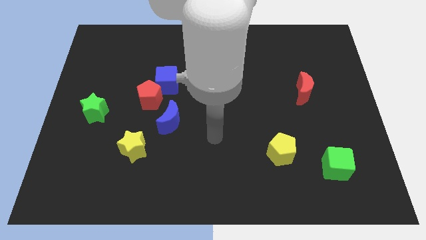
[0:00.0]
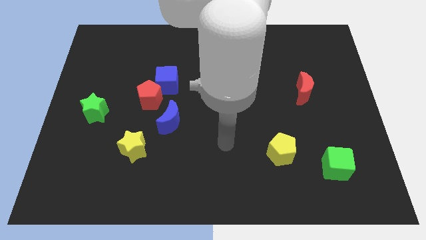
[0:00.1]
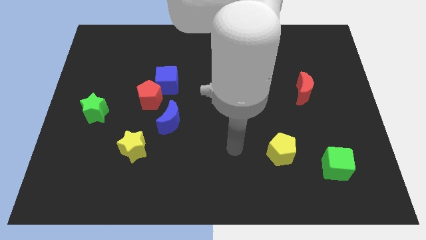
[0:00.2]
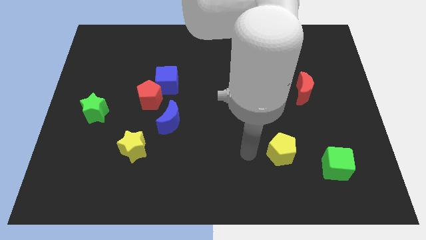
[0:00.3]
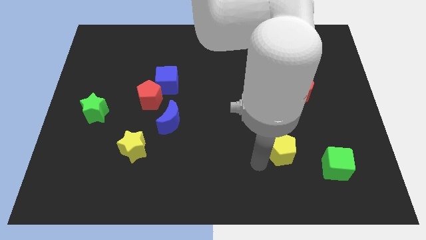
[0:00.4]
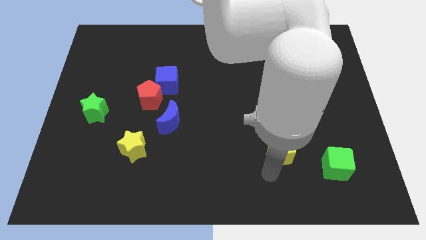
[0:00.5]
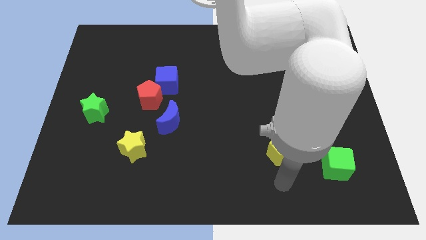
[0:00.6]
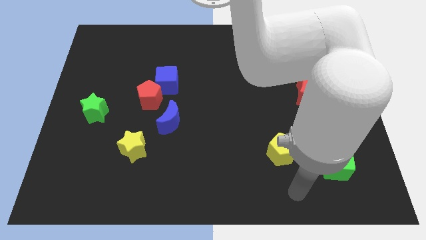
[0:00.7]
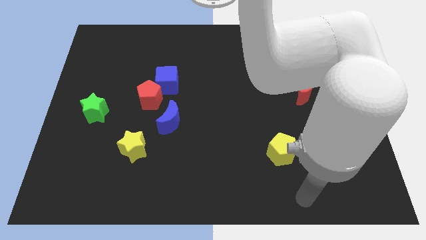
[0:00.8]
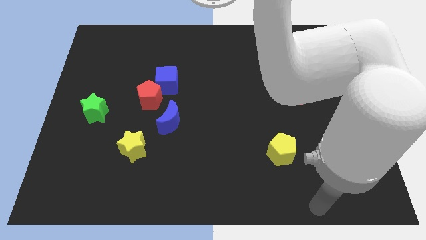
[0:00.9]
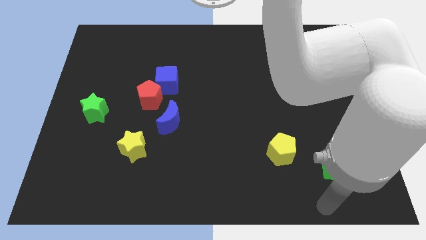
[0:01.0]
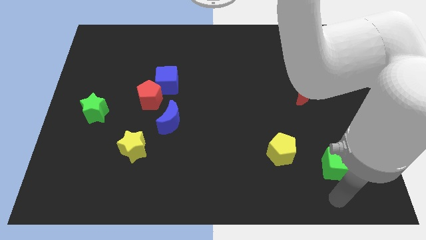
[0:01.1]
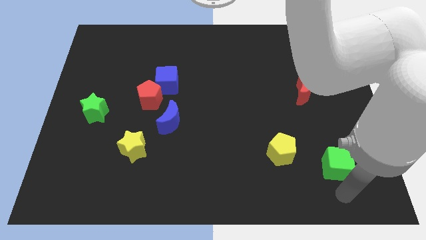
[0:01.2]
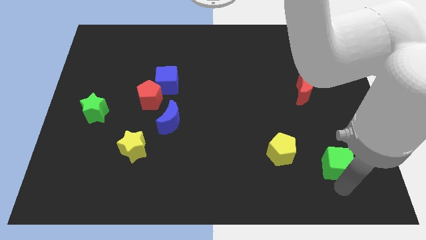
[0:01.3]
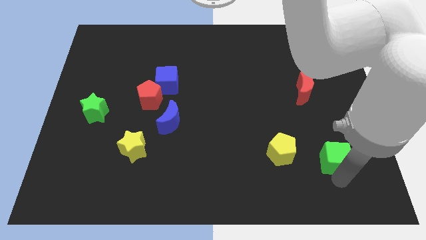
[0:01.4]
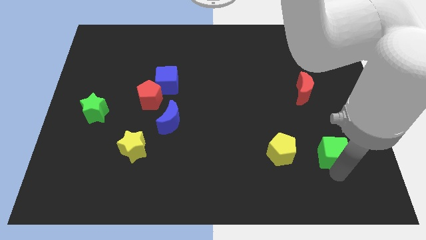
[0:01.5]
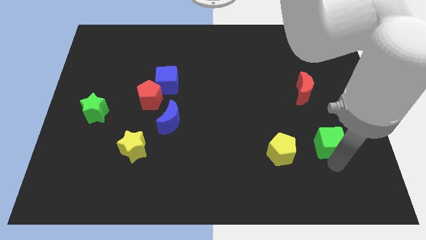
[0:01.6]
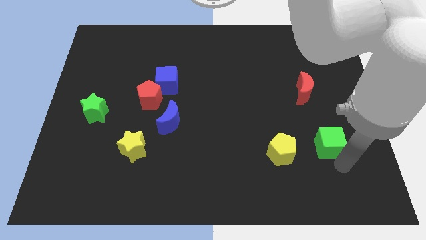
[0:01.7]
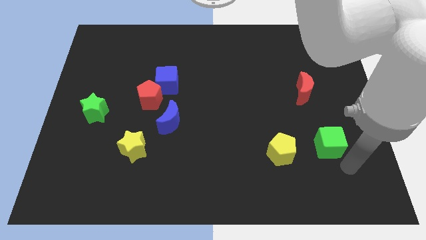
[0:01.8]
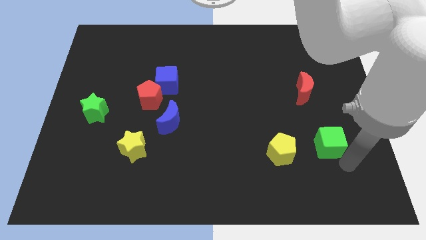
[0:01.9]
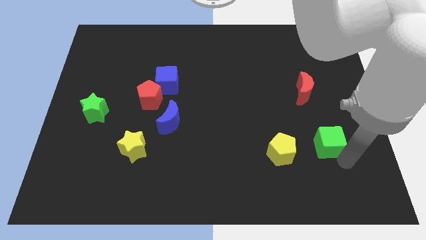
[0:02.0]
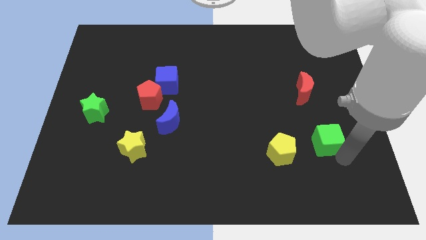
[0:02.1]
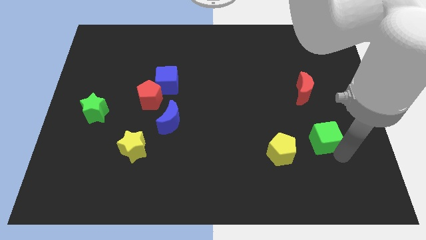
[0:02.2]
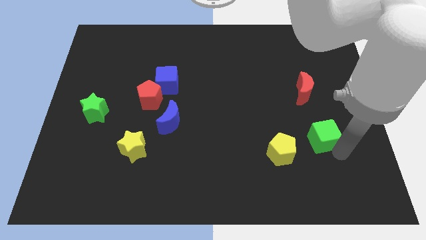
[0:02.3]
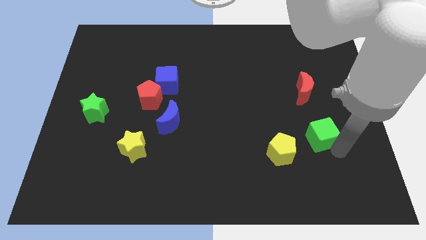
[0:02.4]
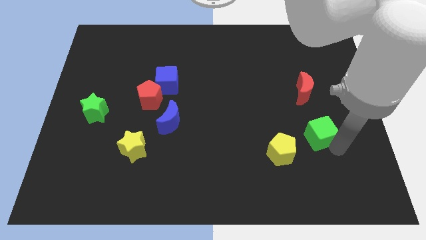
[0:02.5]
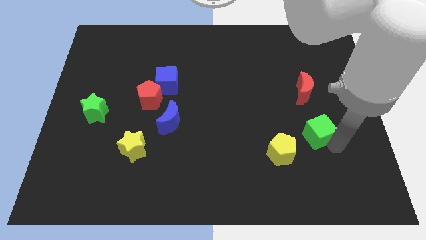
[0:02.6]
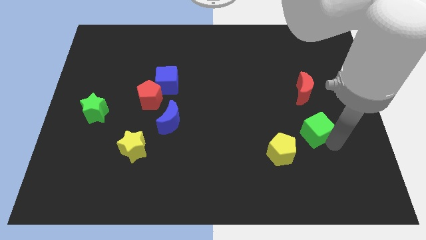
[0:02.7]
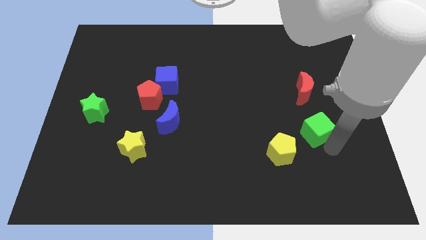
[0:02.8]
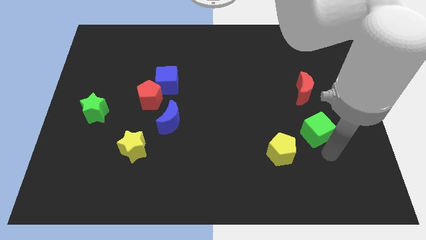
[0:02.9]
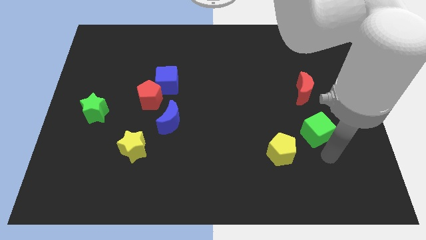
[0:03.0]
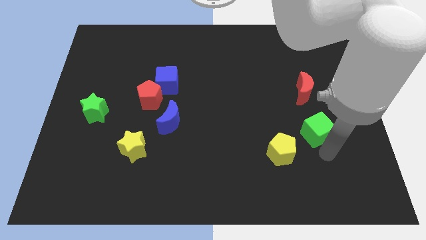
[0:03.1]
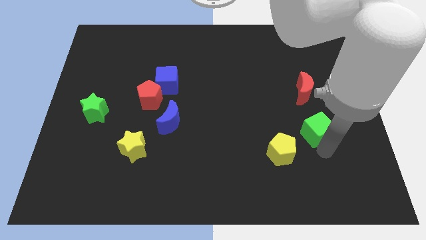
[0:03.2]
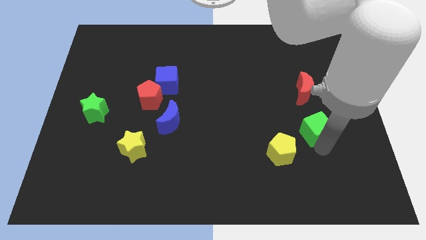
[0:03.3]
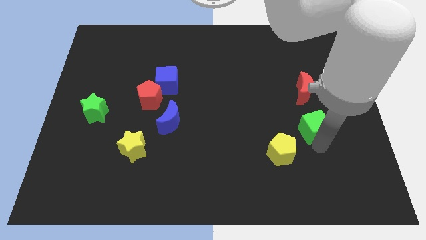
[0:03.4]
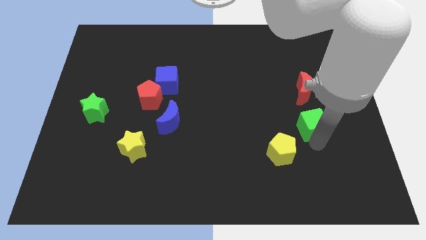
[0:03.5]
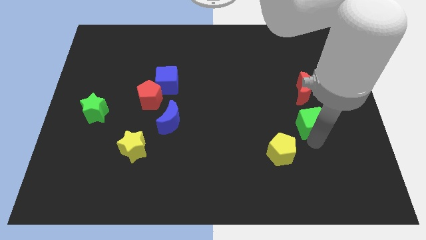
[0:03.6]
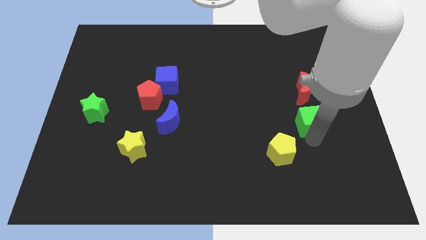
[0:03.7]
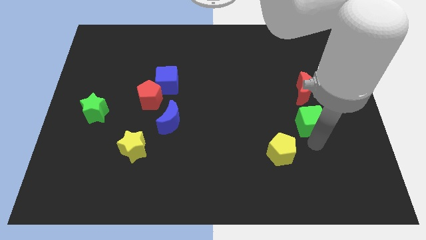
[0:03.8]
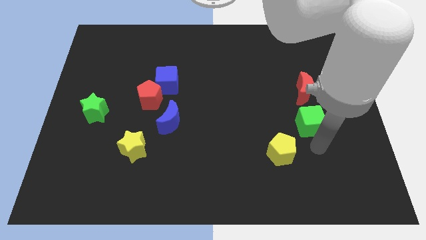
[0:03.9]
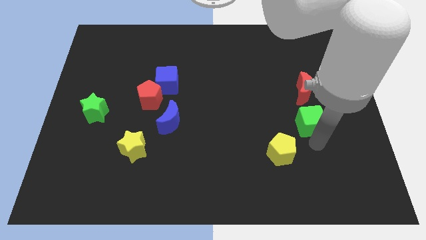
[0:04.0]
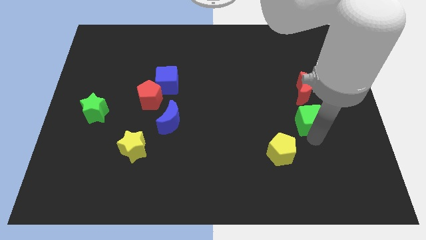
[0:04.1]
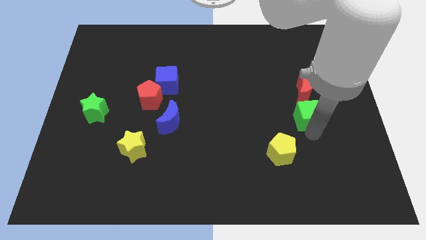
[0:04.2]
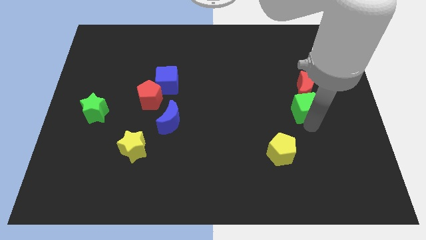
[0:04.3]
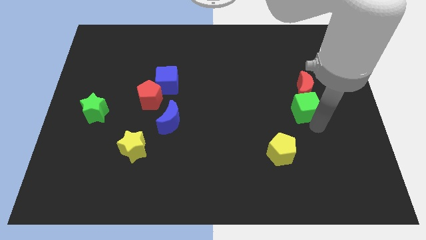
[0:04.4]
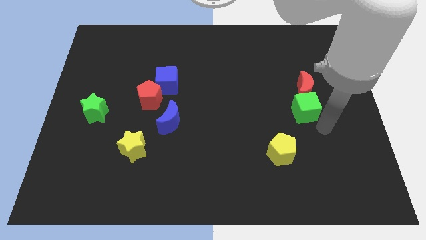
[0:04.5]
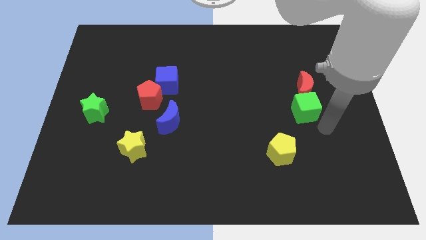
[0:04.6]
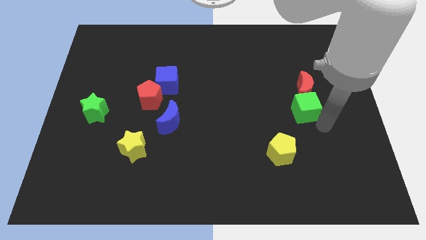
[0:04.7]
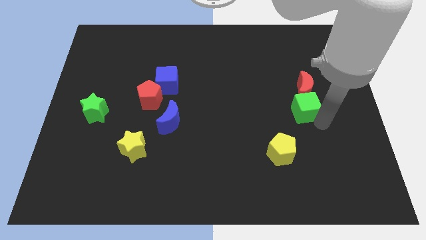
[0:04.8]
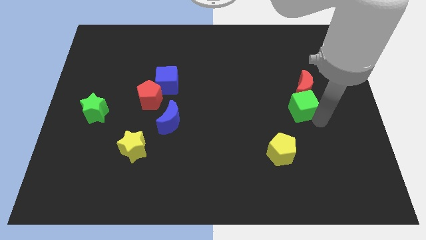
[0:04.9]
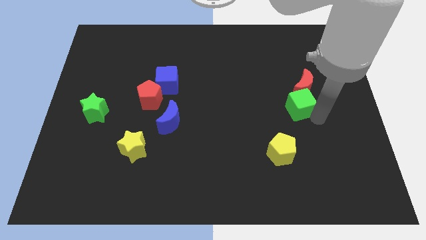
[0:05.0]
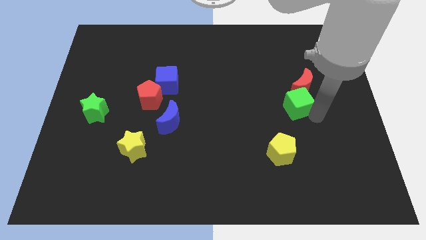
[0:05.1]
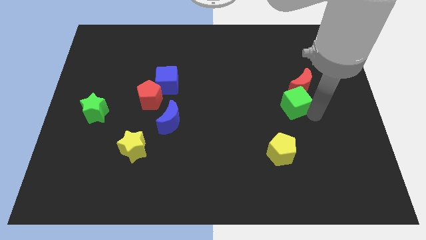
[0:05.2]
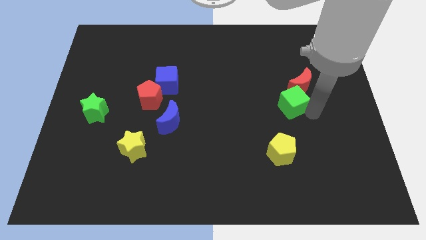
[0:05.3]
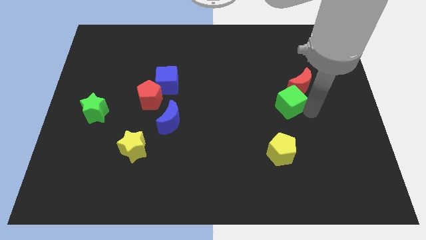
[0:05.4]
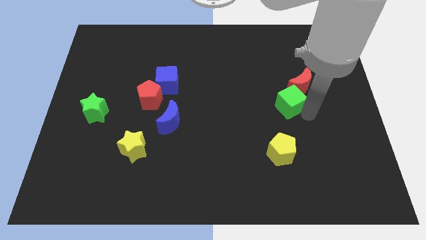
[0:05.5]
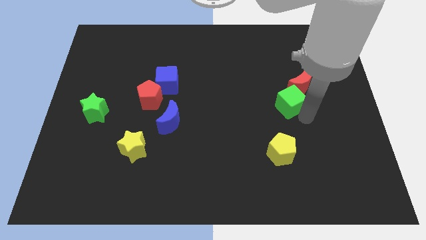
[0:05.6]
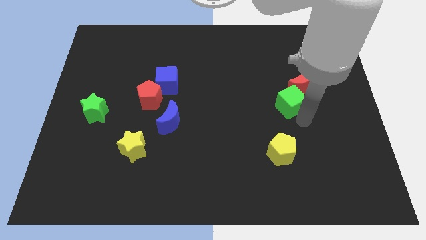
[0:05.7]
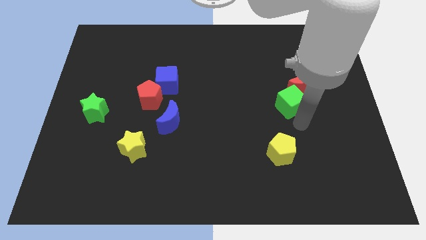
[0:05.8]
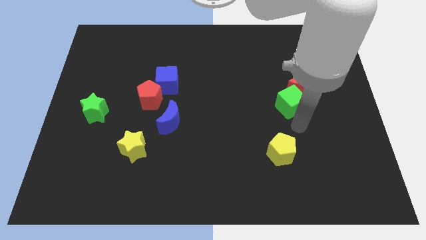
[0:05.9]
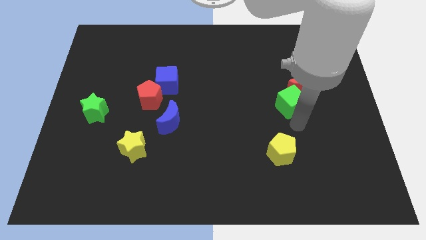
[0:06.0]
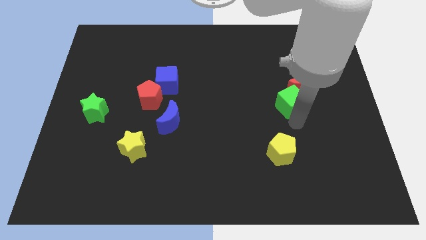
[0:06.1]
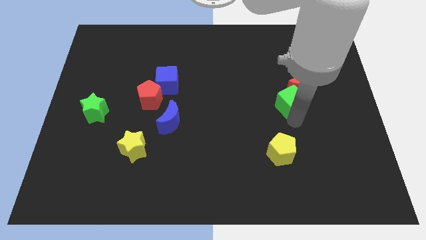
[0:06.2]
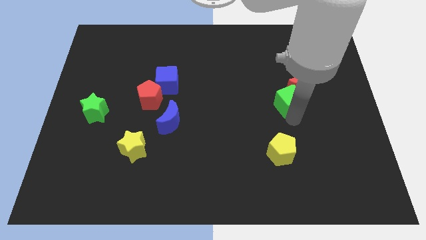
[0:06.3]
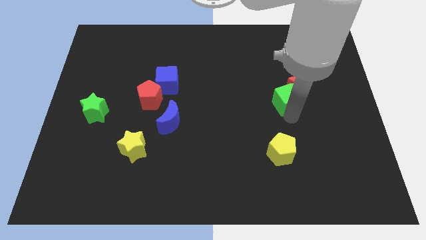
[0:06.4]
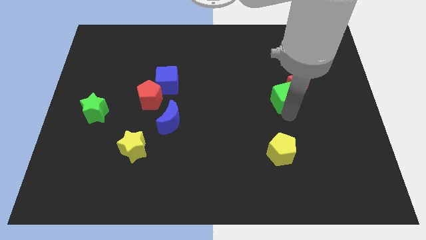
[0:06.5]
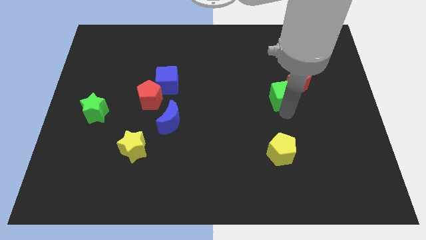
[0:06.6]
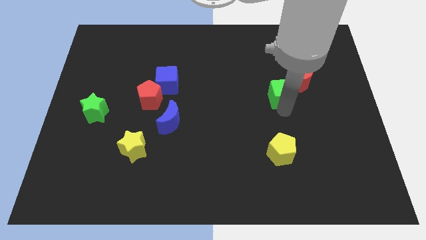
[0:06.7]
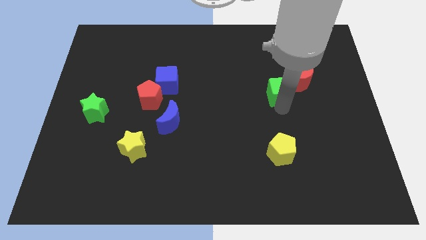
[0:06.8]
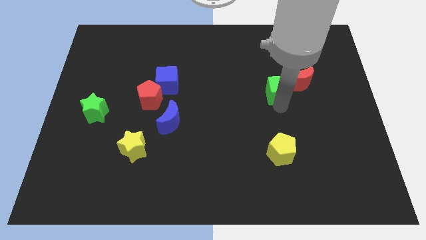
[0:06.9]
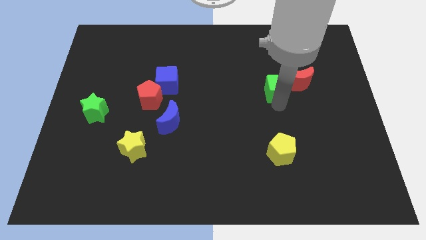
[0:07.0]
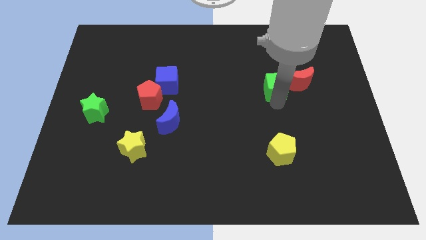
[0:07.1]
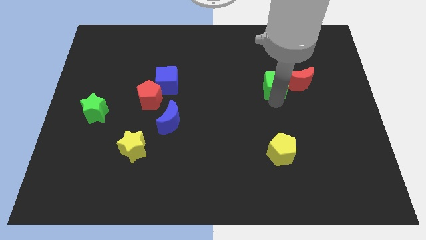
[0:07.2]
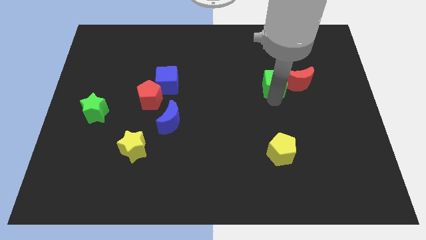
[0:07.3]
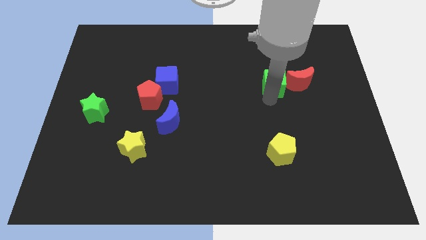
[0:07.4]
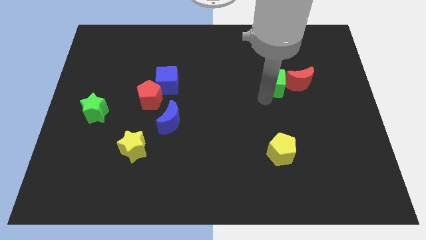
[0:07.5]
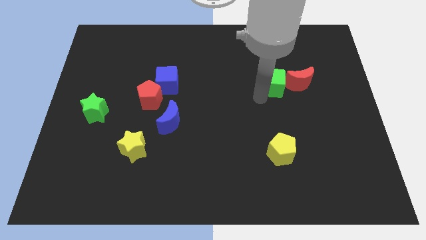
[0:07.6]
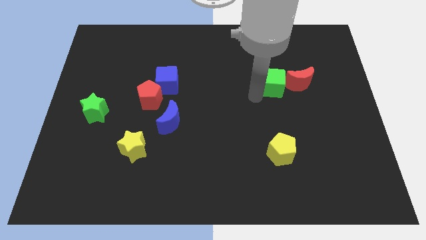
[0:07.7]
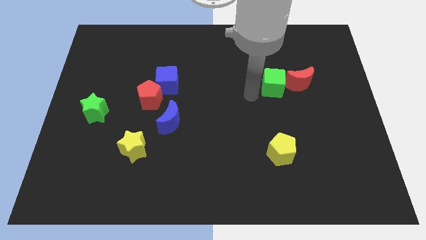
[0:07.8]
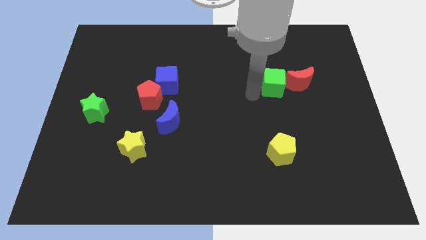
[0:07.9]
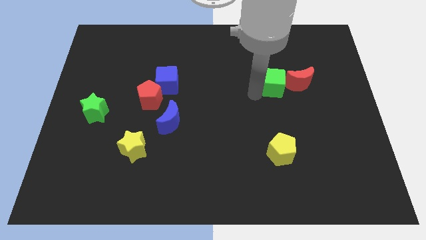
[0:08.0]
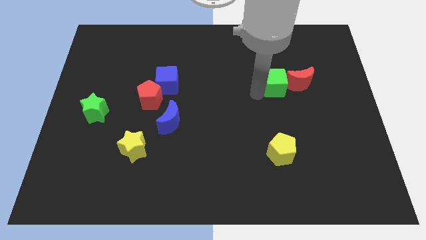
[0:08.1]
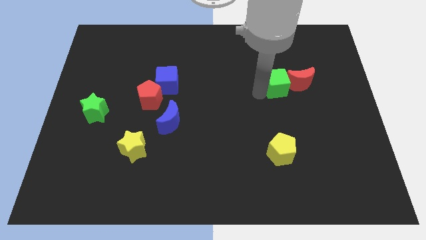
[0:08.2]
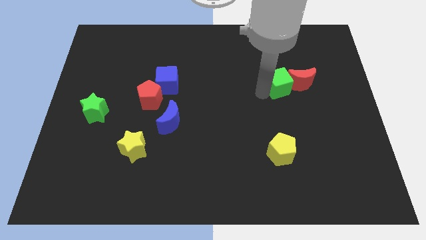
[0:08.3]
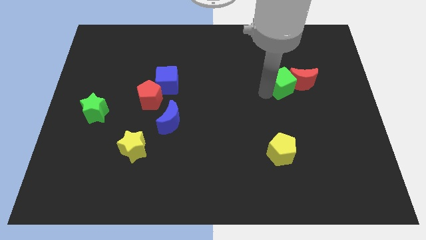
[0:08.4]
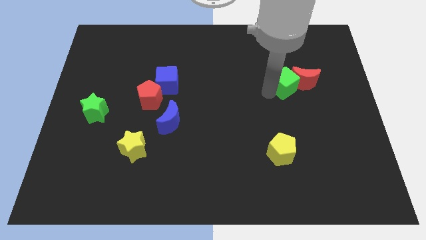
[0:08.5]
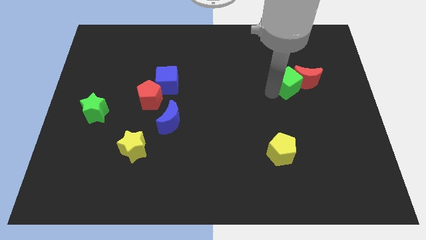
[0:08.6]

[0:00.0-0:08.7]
slide the green cube up
